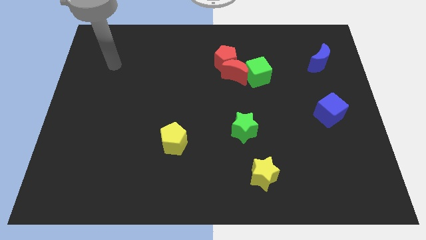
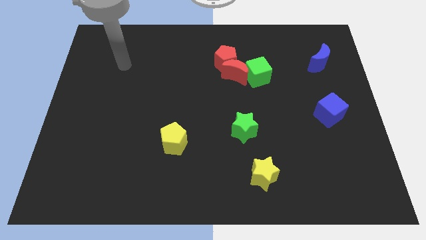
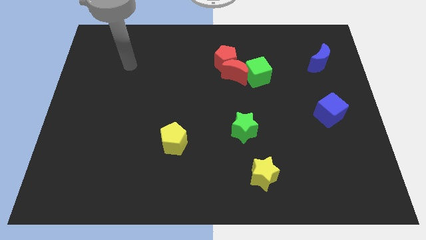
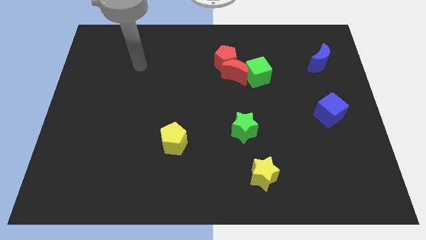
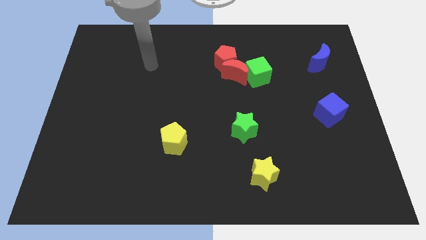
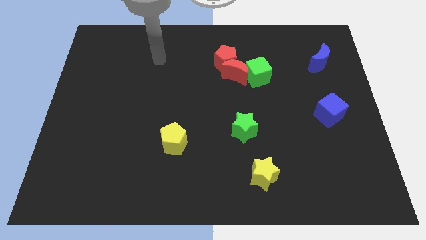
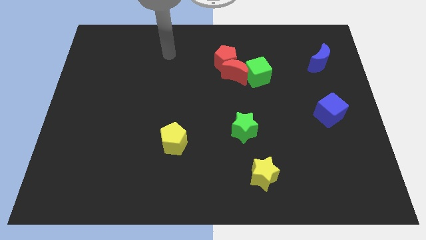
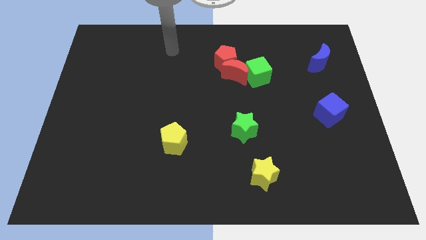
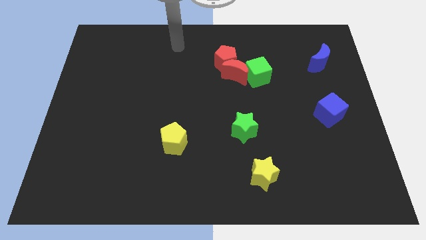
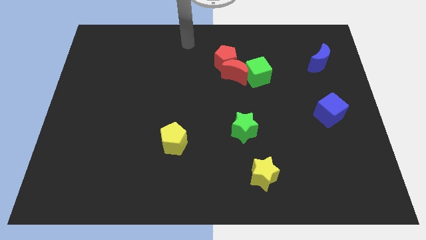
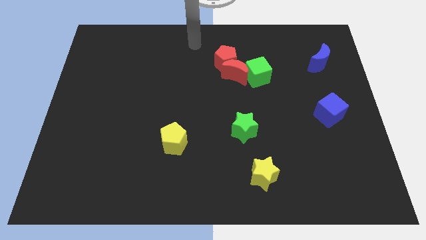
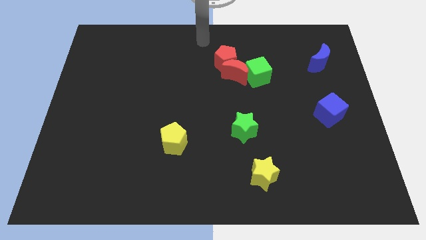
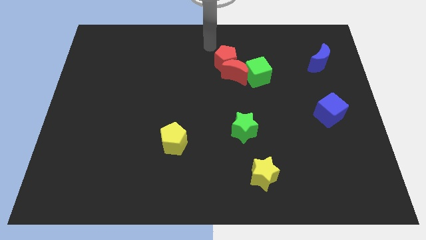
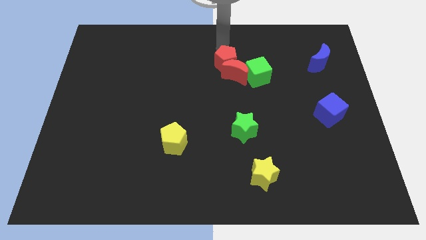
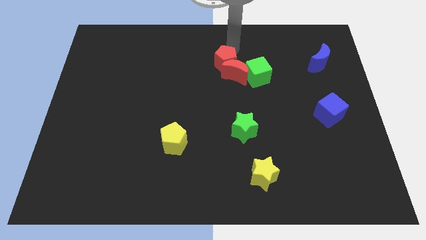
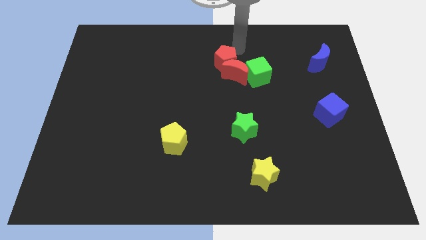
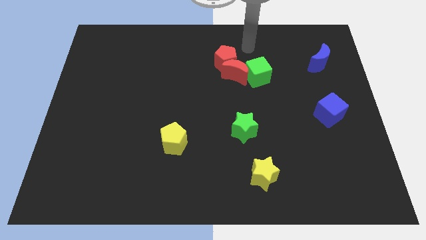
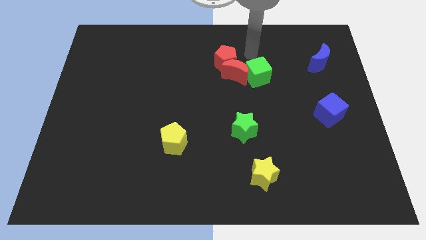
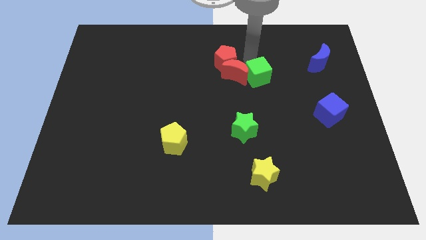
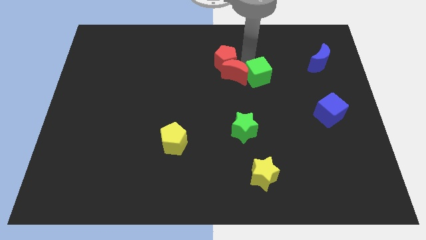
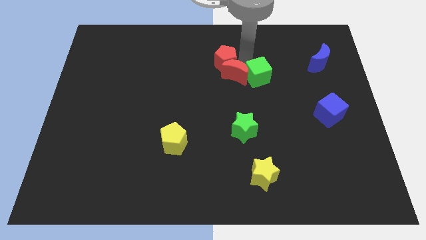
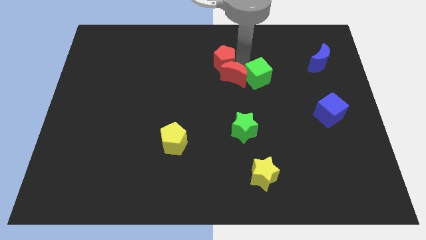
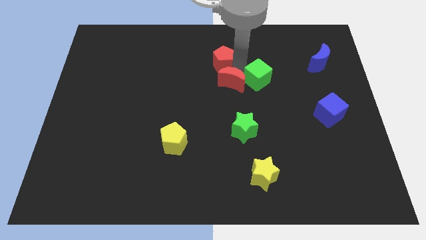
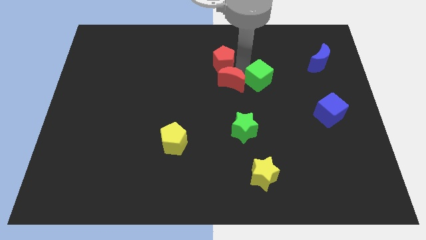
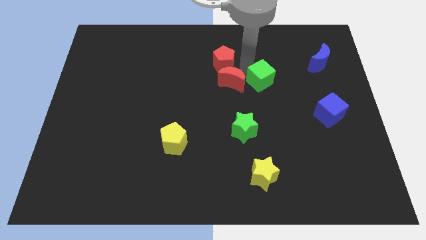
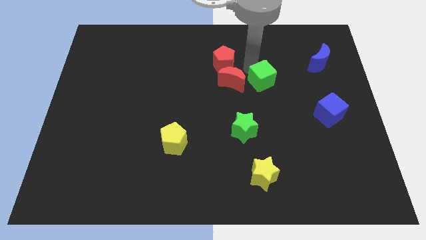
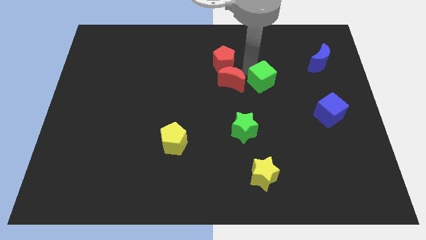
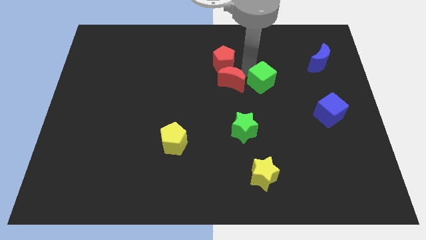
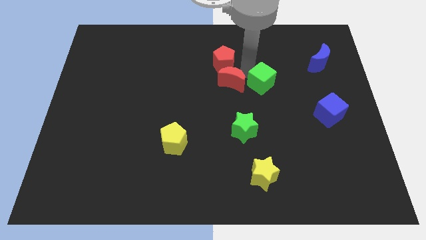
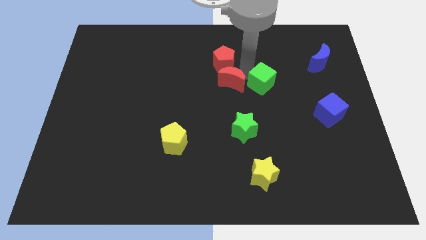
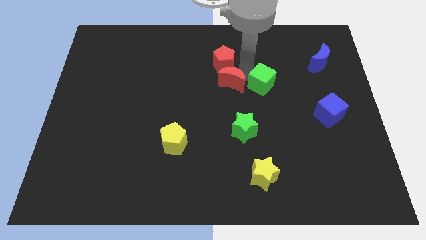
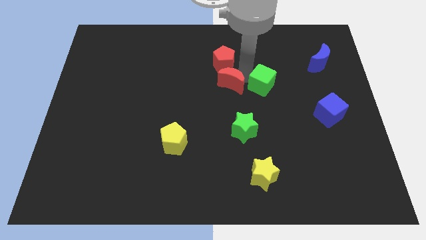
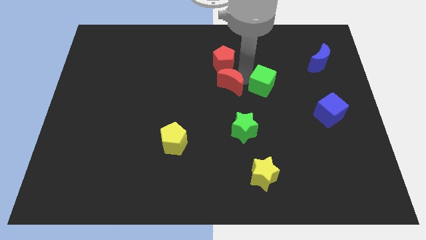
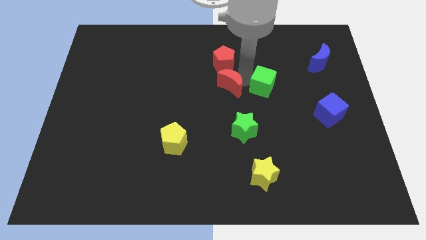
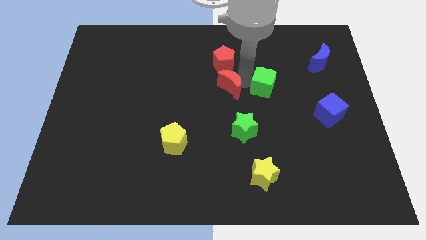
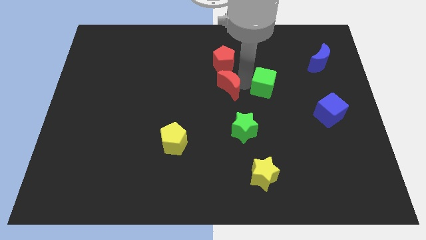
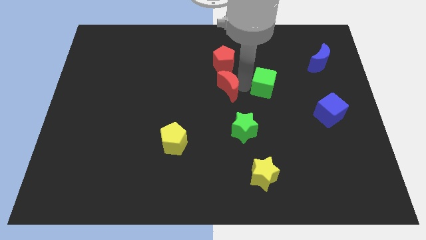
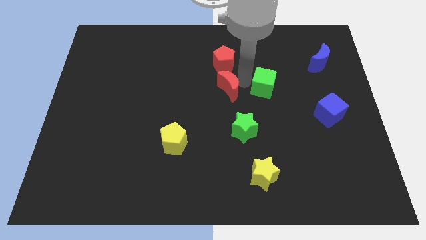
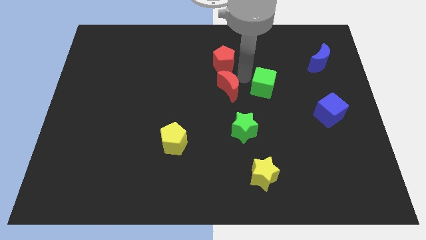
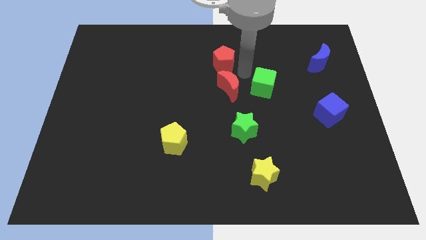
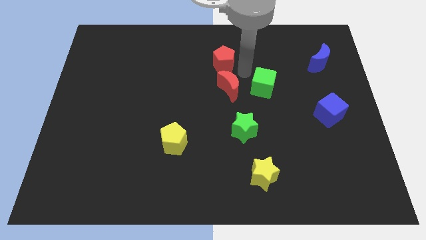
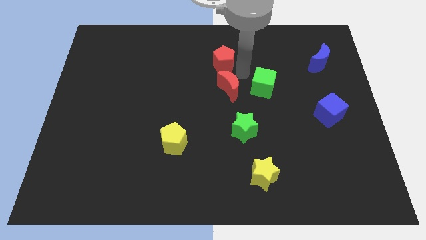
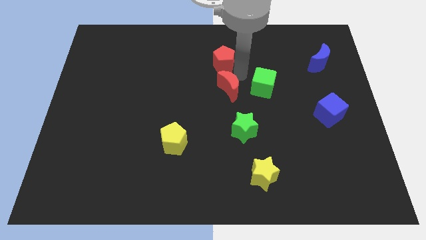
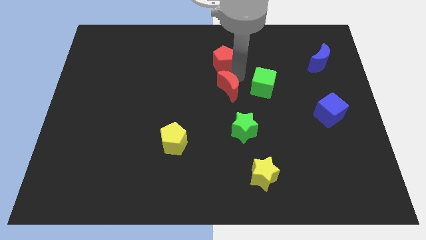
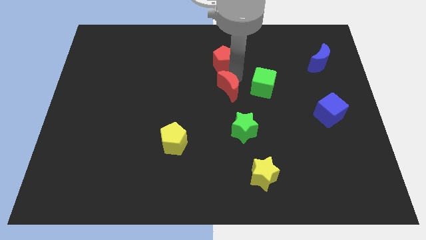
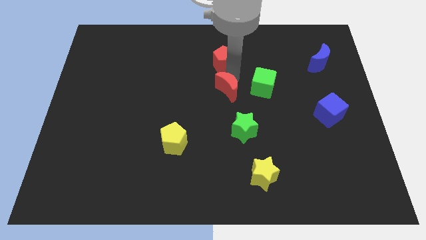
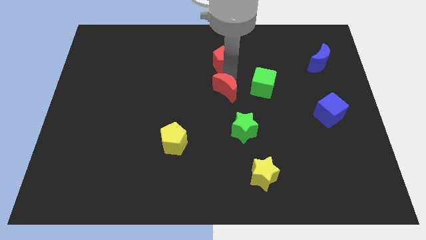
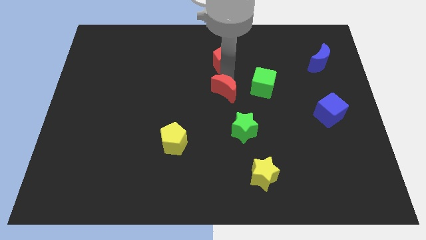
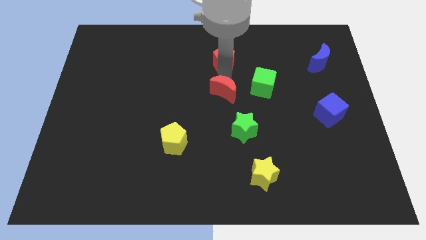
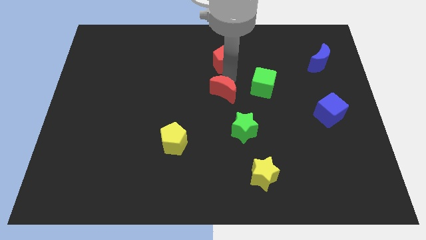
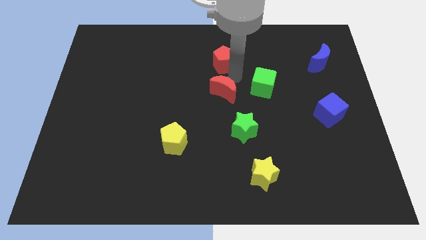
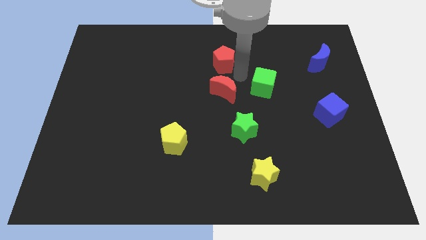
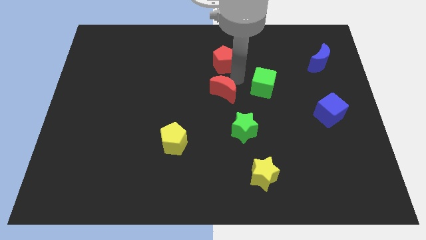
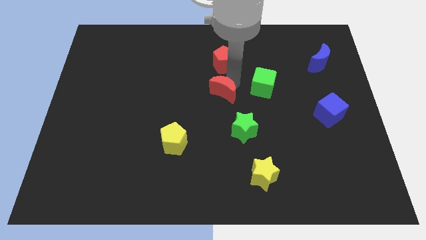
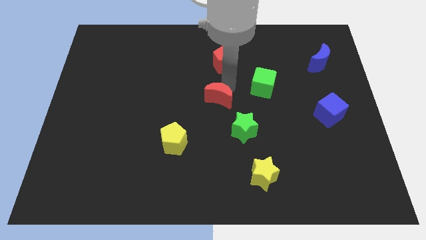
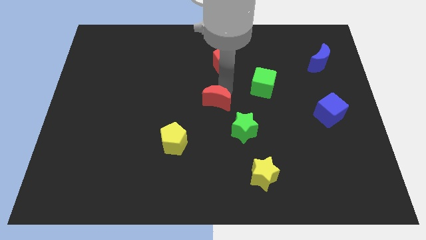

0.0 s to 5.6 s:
move the red moon away from the red pentagon and green cube

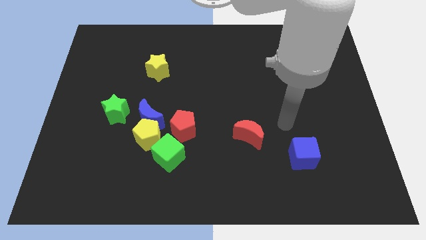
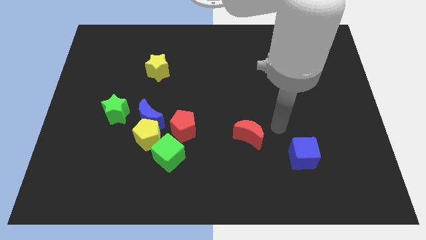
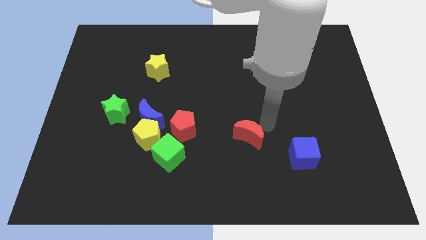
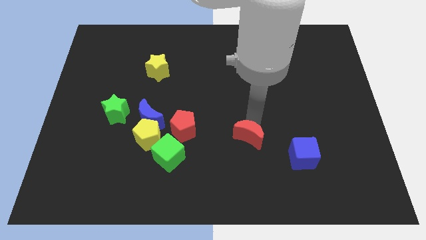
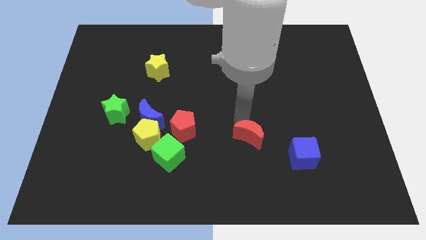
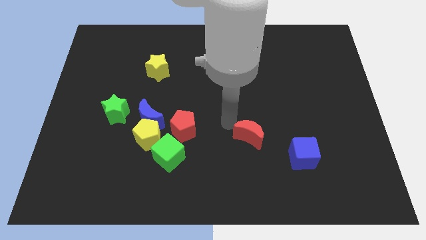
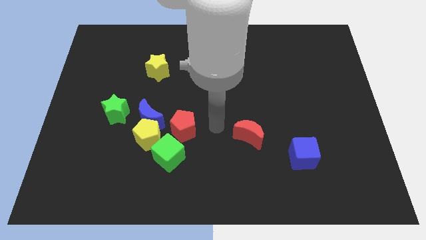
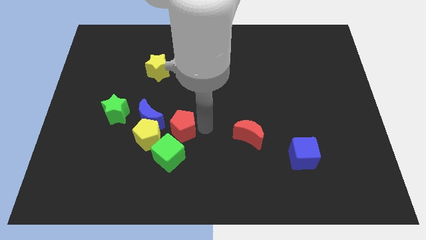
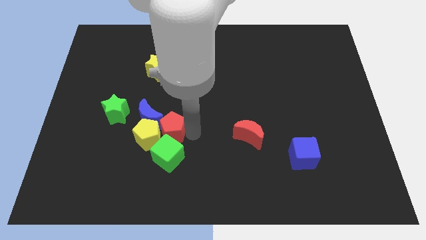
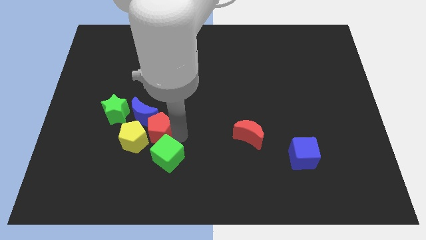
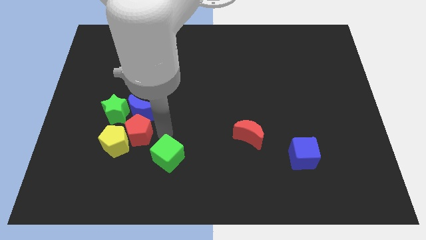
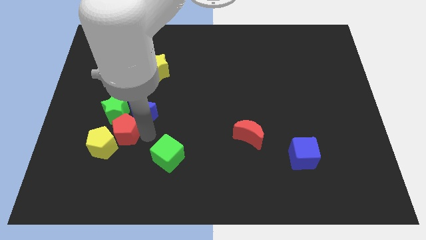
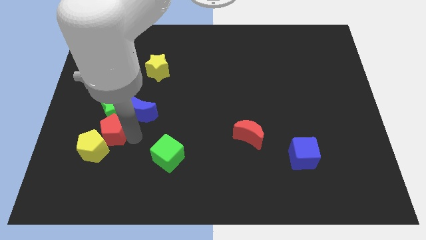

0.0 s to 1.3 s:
pull the yellow pentagon apart from the blue moon, green cube, and red pentagon

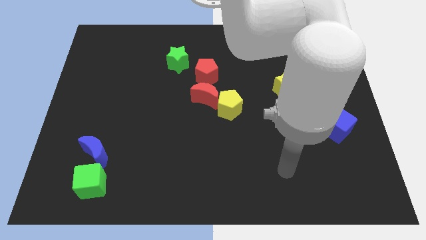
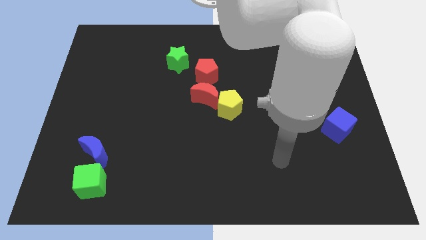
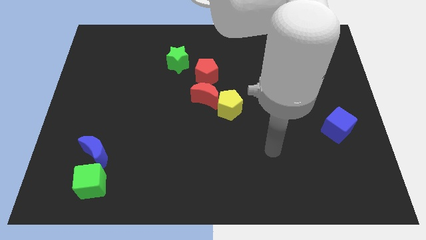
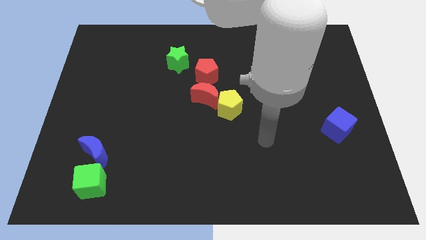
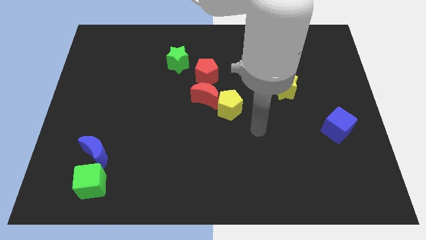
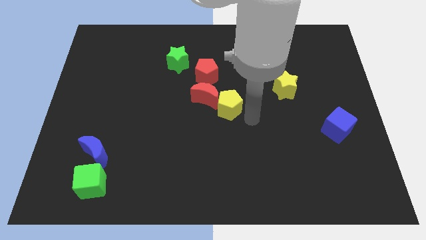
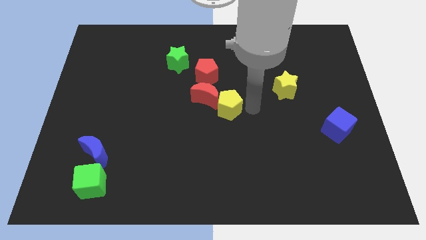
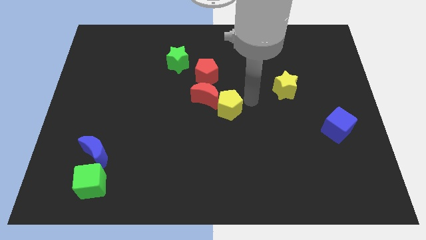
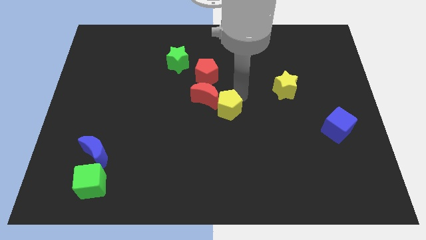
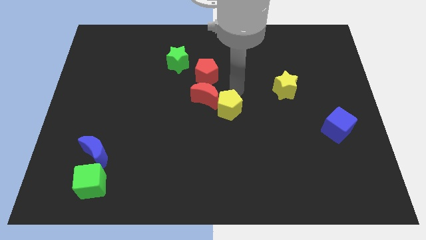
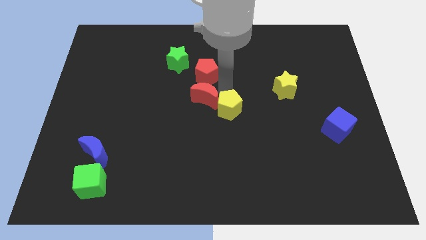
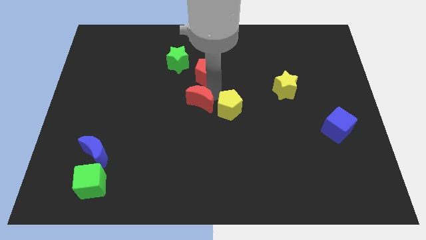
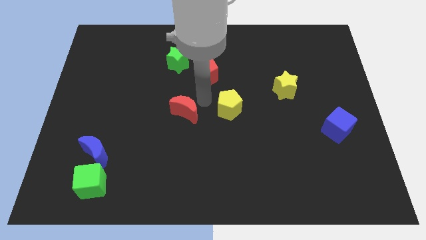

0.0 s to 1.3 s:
move the yellow pentagon away from the red moon

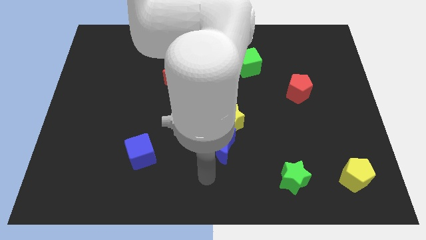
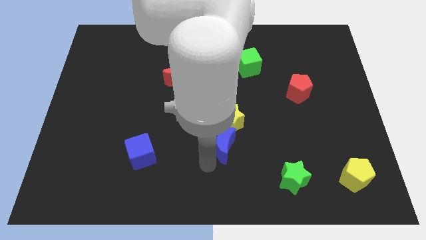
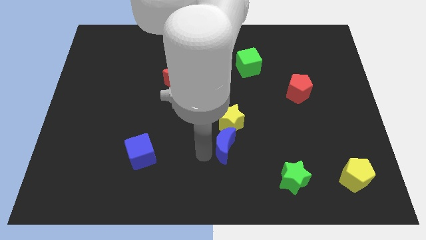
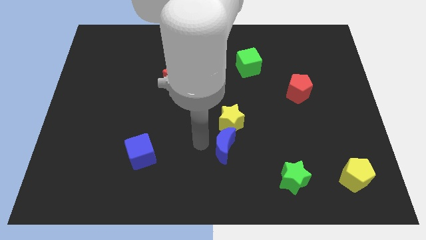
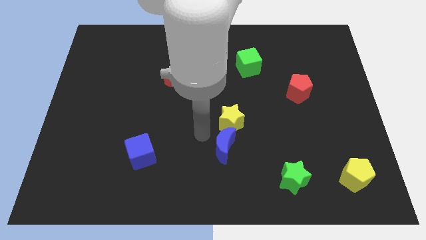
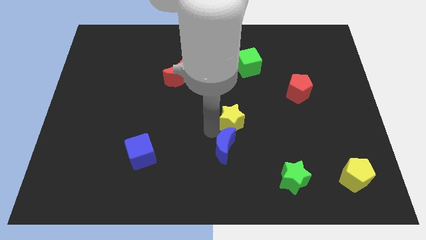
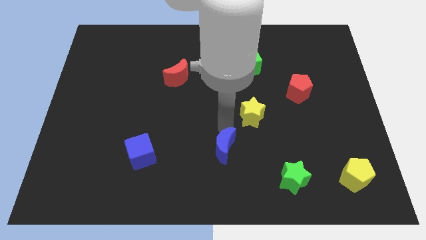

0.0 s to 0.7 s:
pull the blue moon apart from the yellow star

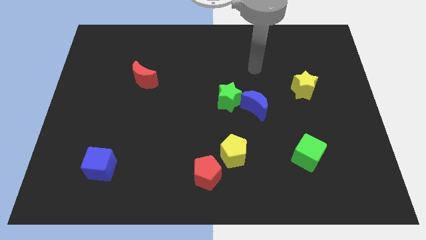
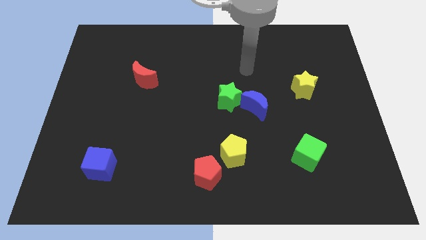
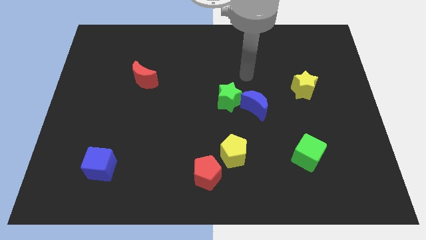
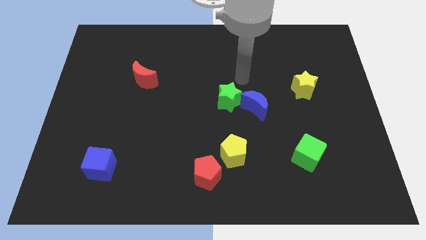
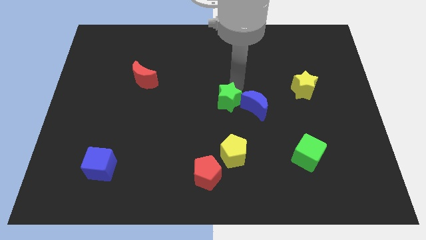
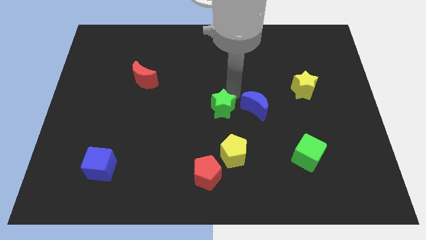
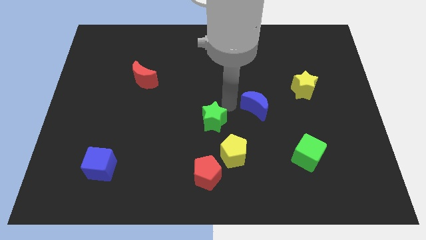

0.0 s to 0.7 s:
separate the blue moon from the green star
